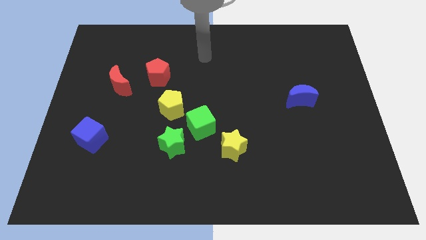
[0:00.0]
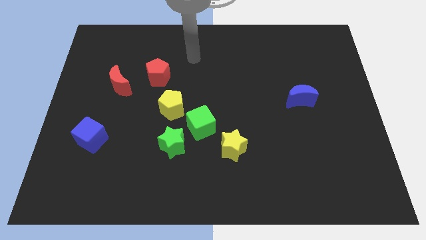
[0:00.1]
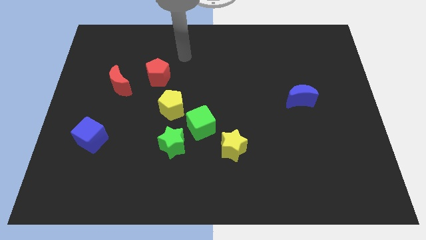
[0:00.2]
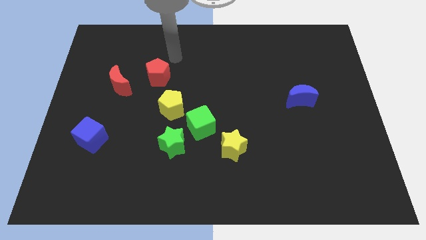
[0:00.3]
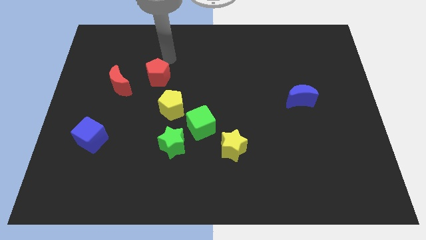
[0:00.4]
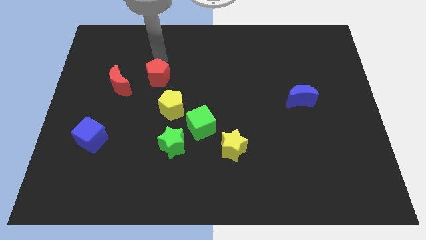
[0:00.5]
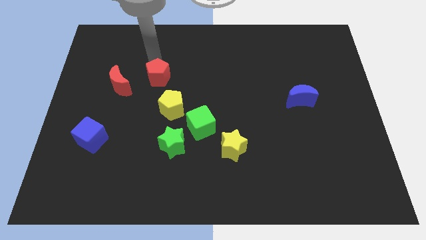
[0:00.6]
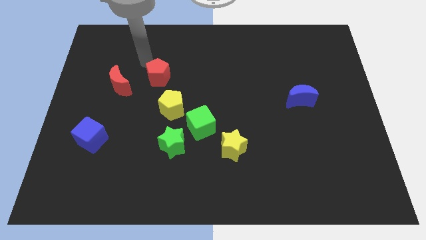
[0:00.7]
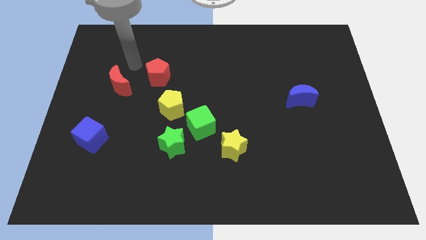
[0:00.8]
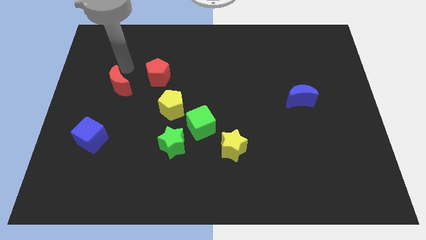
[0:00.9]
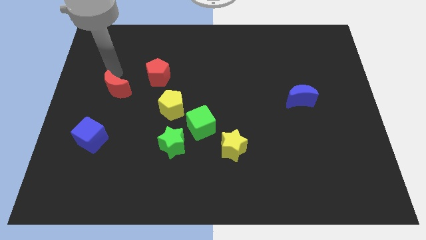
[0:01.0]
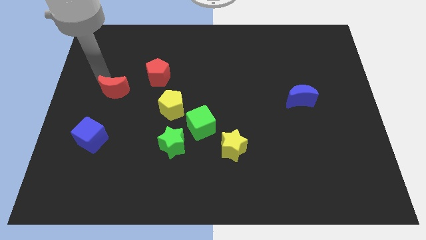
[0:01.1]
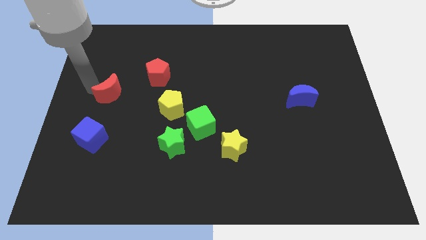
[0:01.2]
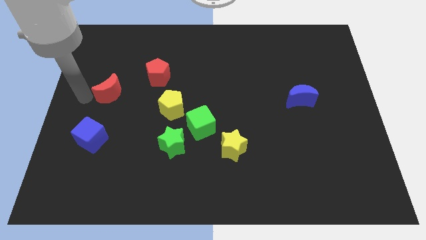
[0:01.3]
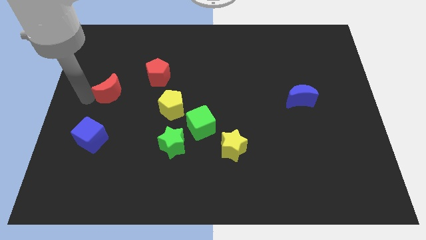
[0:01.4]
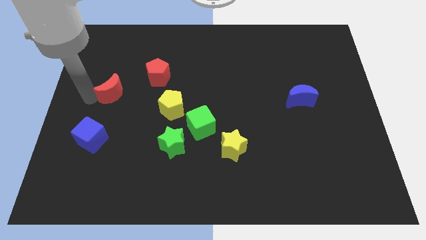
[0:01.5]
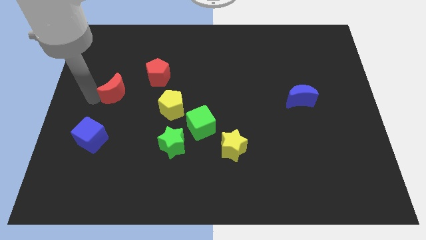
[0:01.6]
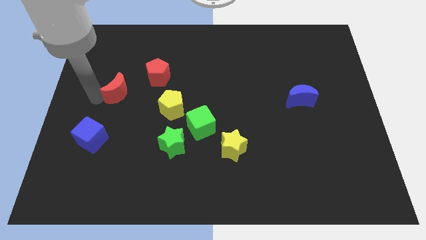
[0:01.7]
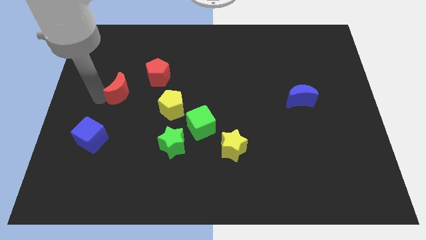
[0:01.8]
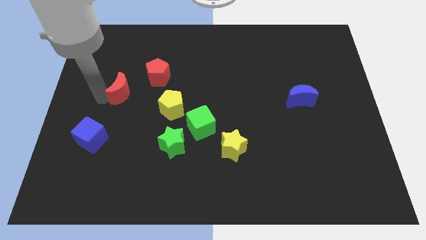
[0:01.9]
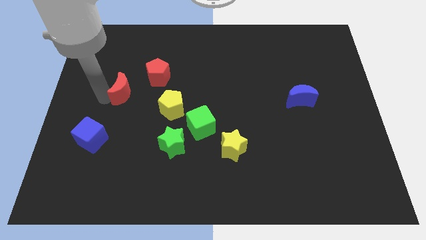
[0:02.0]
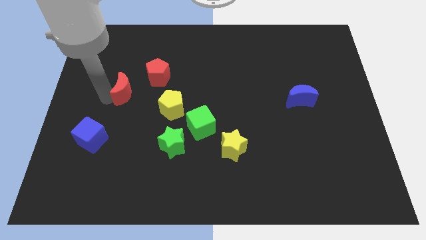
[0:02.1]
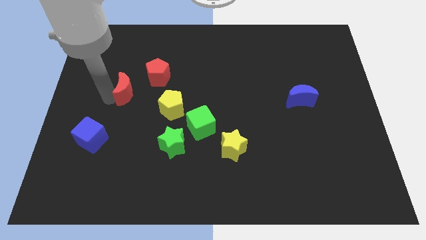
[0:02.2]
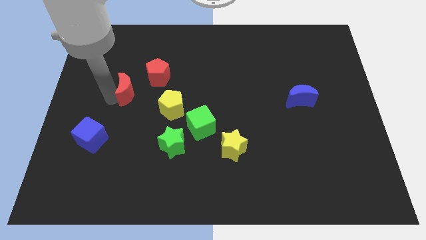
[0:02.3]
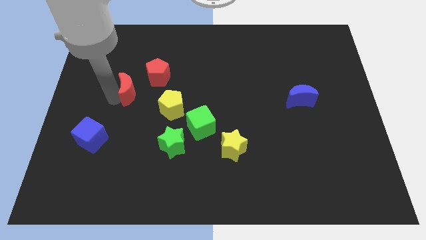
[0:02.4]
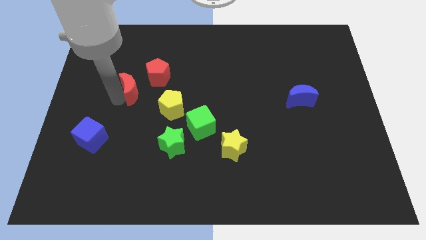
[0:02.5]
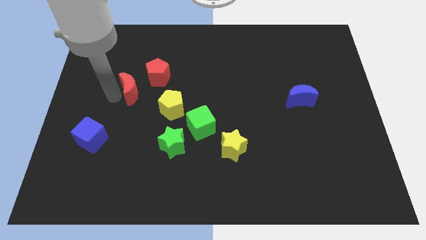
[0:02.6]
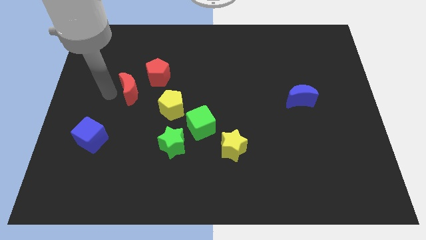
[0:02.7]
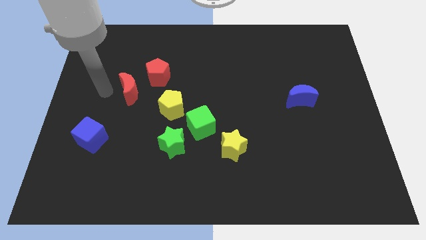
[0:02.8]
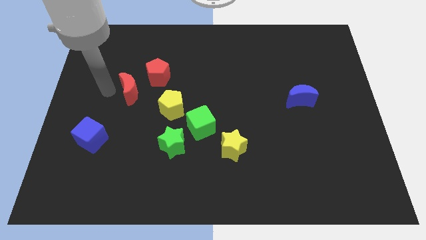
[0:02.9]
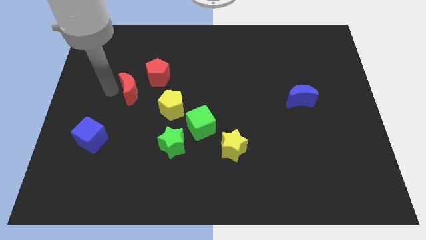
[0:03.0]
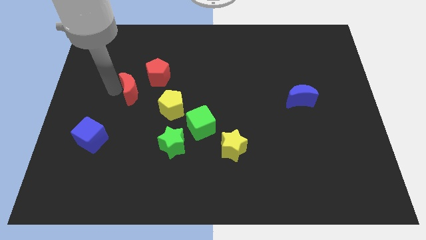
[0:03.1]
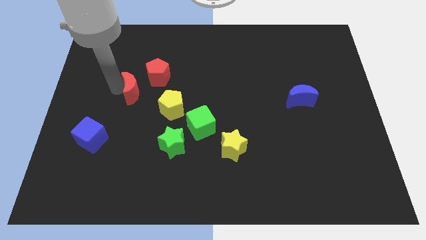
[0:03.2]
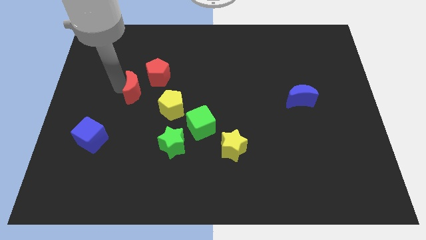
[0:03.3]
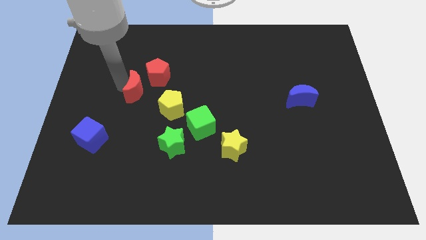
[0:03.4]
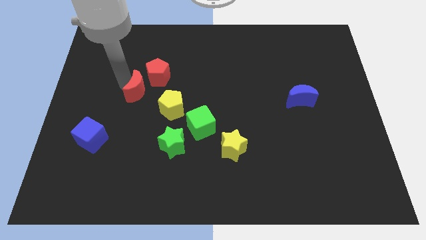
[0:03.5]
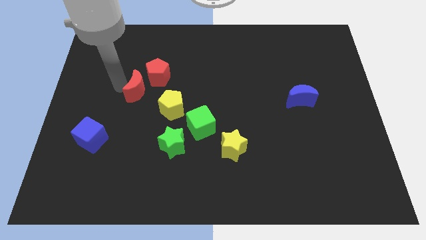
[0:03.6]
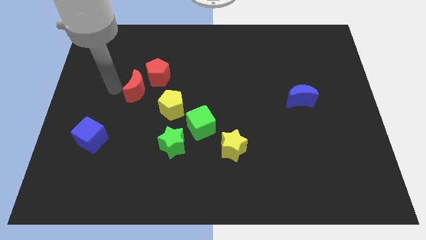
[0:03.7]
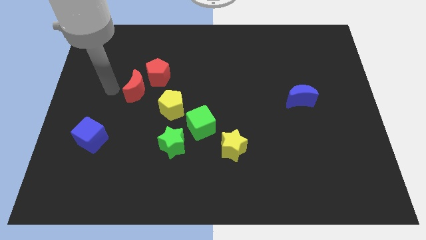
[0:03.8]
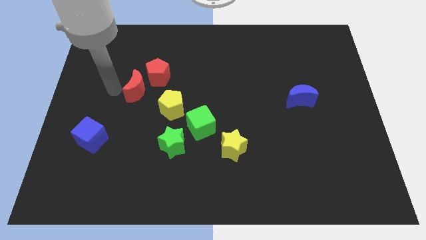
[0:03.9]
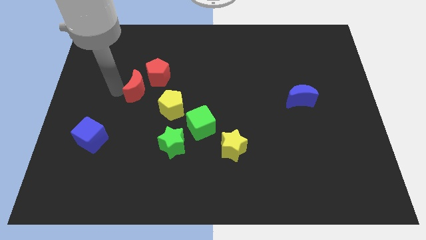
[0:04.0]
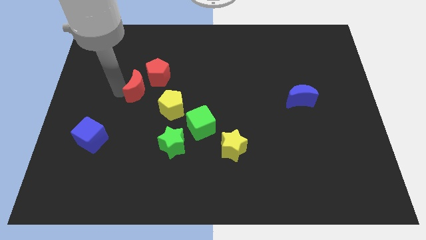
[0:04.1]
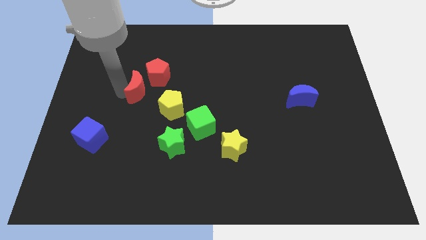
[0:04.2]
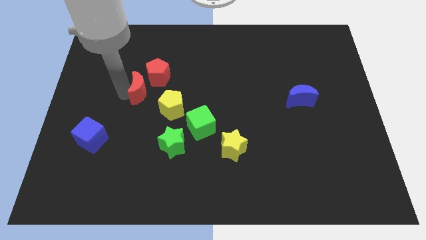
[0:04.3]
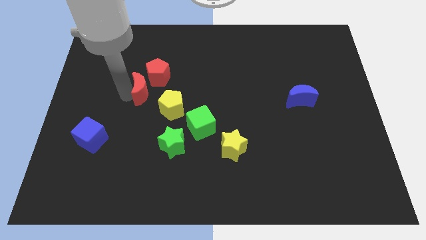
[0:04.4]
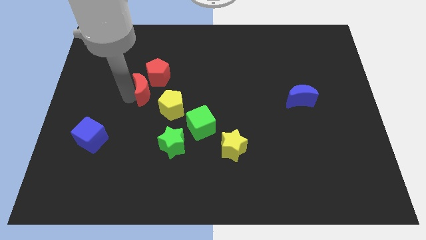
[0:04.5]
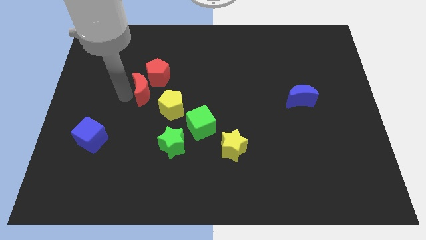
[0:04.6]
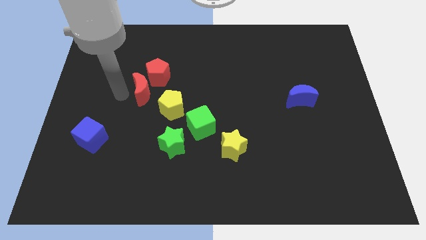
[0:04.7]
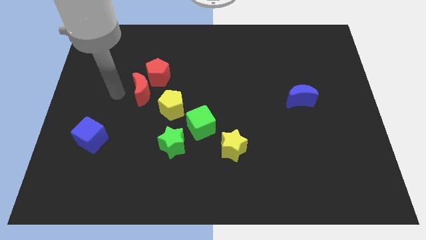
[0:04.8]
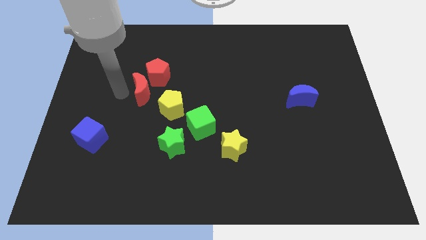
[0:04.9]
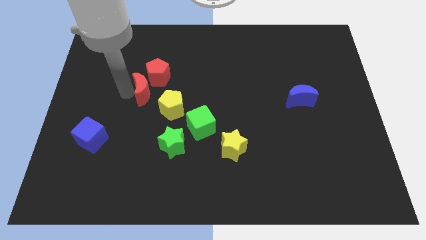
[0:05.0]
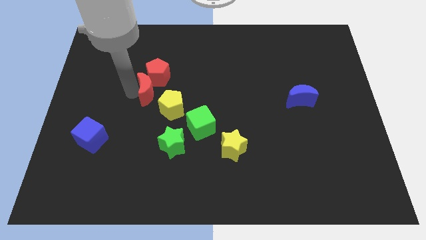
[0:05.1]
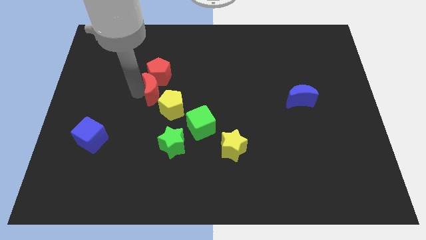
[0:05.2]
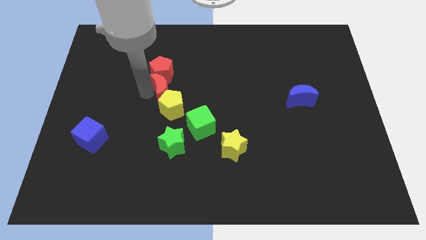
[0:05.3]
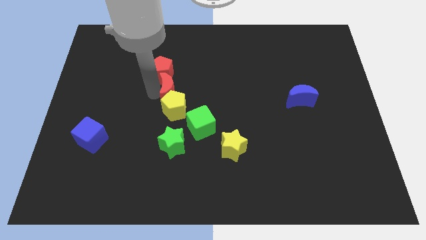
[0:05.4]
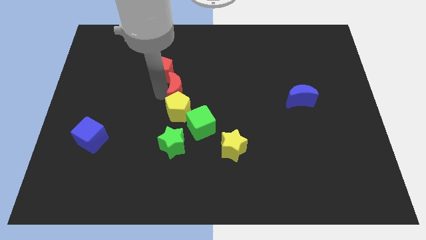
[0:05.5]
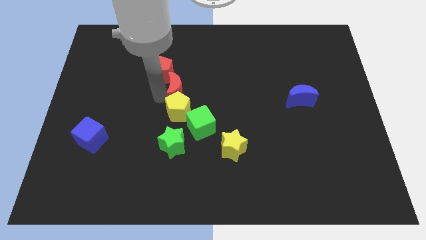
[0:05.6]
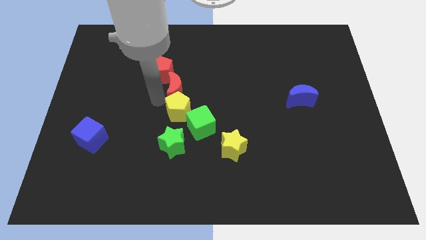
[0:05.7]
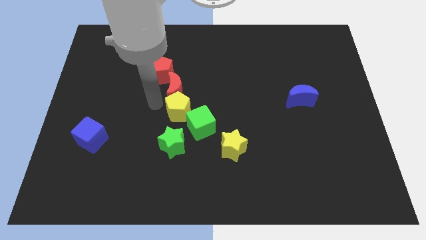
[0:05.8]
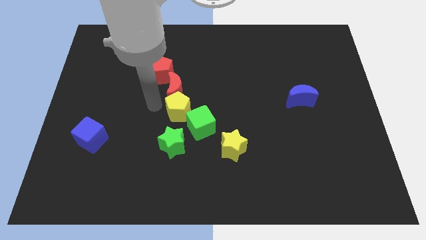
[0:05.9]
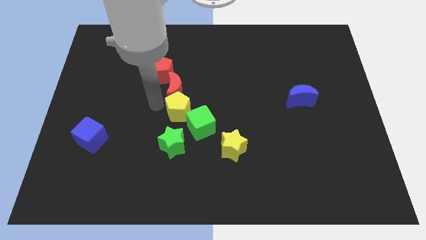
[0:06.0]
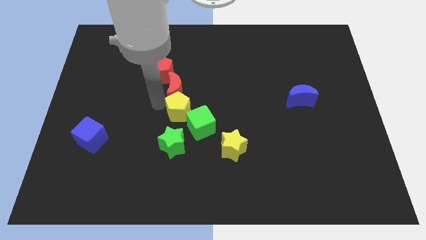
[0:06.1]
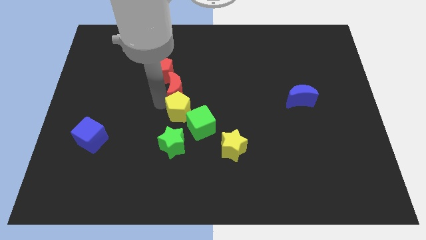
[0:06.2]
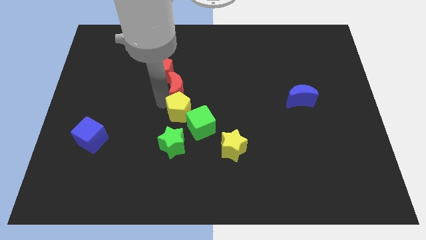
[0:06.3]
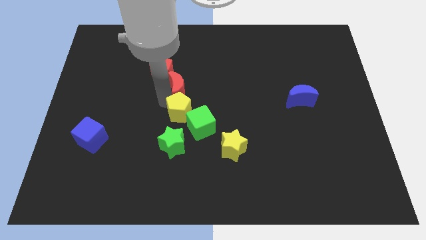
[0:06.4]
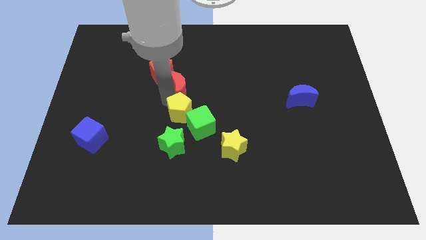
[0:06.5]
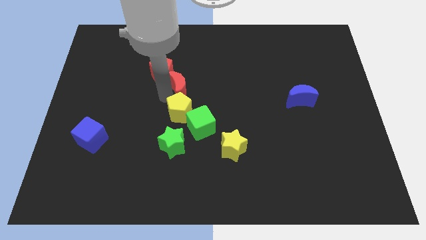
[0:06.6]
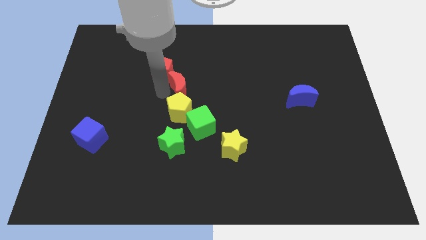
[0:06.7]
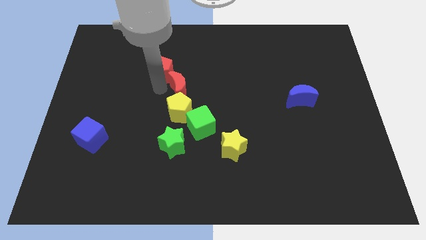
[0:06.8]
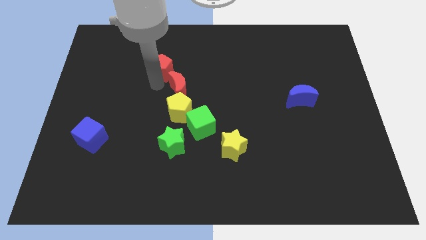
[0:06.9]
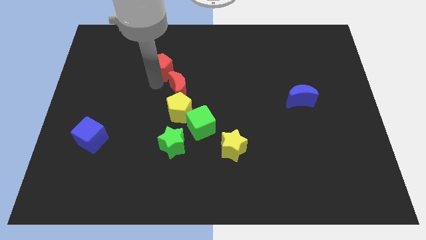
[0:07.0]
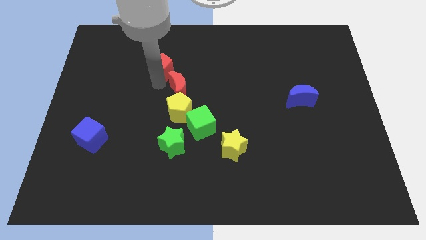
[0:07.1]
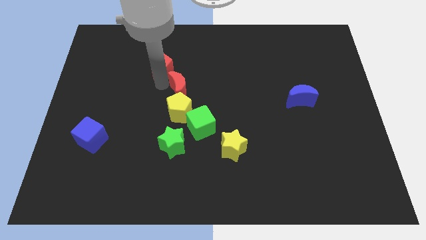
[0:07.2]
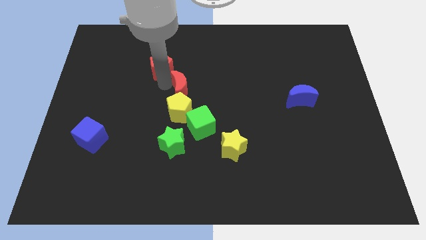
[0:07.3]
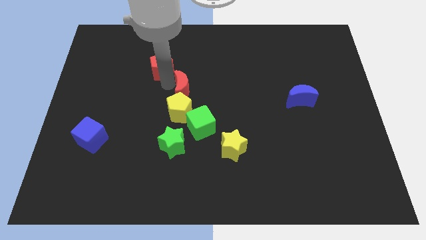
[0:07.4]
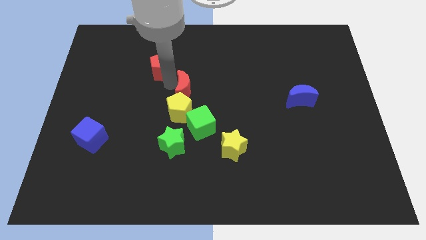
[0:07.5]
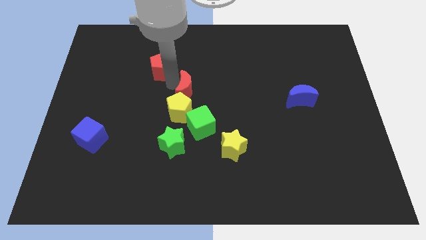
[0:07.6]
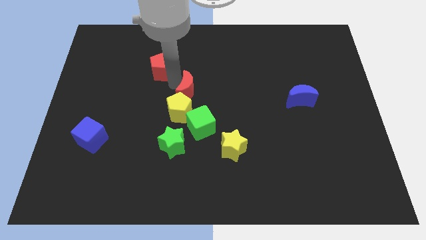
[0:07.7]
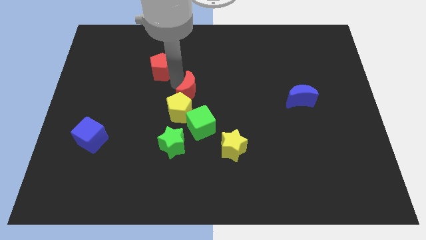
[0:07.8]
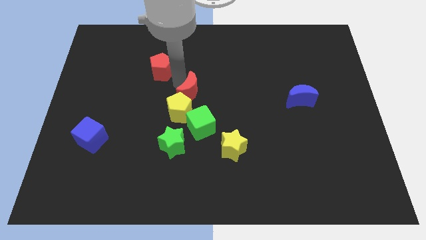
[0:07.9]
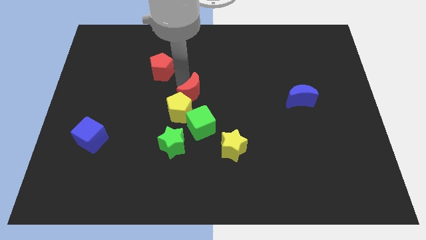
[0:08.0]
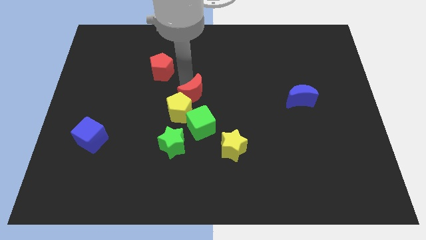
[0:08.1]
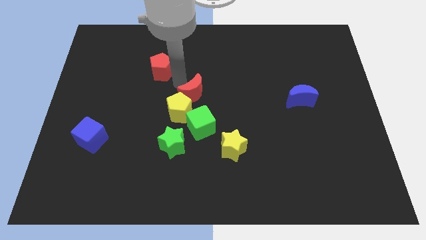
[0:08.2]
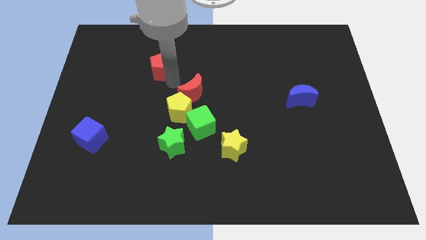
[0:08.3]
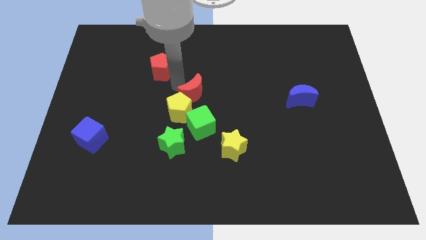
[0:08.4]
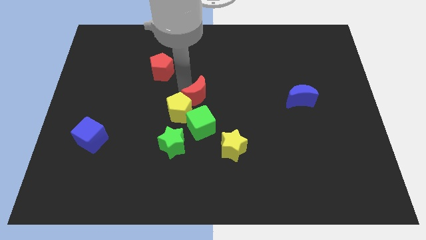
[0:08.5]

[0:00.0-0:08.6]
move the red moon just right of the yellow pentagon
